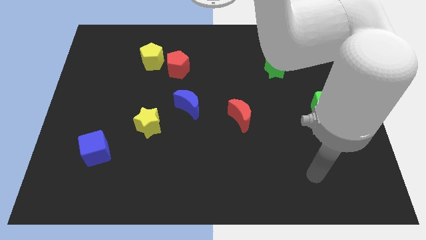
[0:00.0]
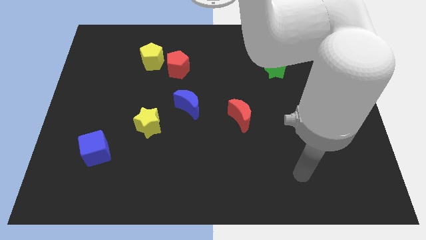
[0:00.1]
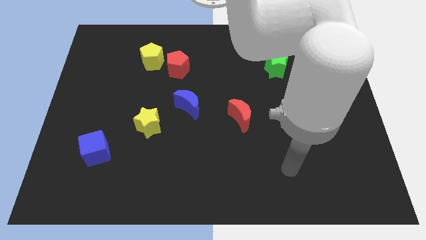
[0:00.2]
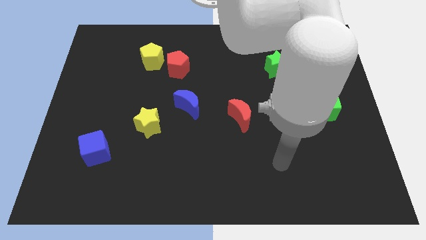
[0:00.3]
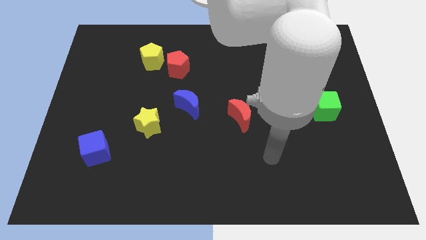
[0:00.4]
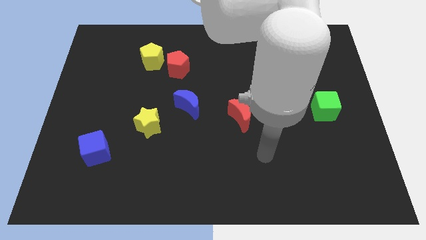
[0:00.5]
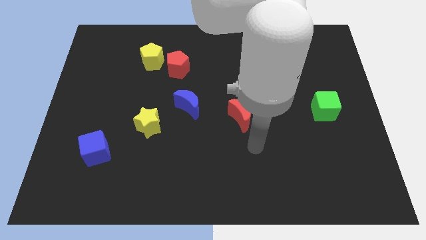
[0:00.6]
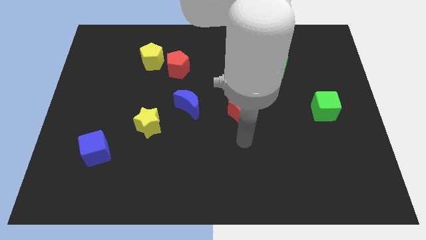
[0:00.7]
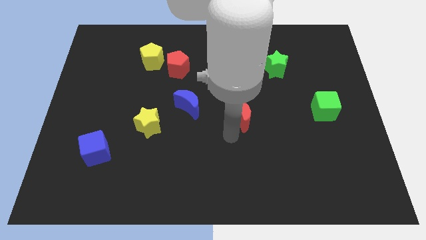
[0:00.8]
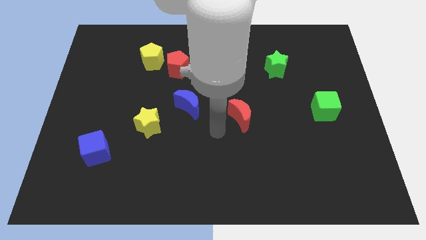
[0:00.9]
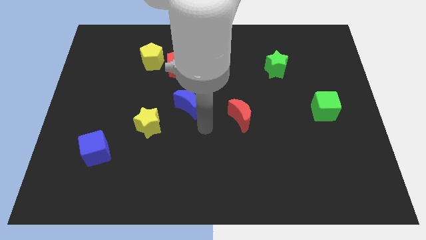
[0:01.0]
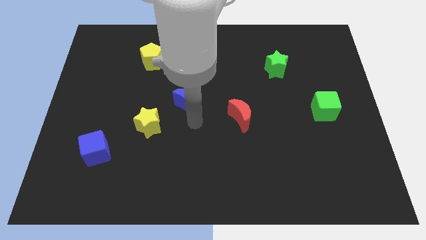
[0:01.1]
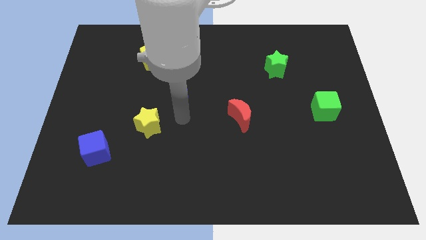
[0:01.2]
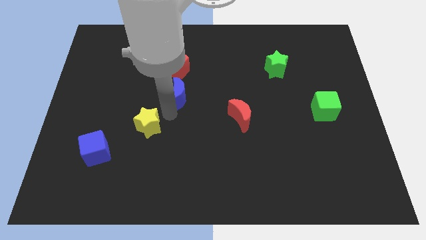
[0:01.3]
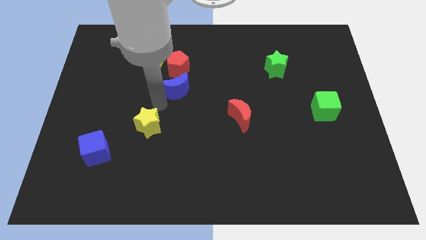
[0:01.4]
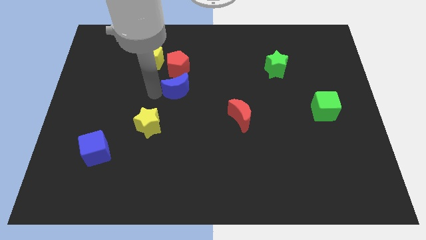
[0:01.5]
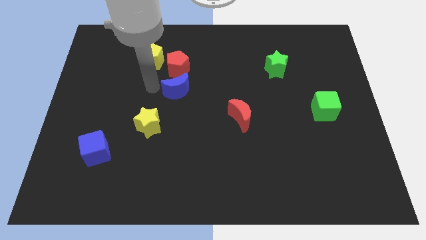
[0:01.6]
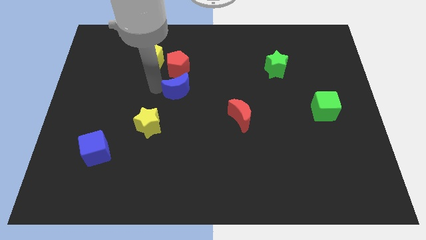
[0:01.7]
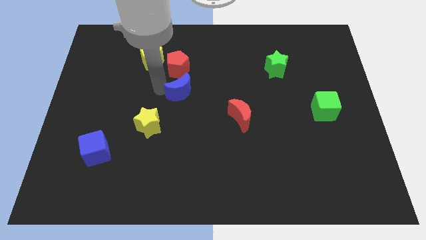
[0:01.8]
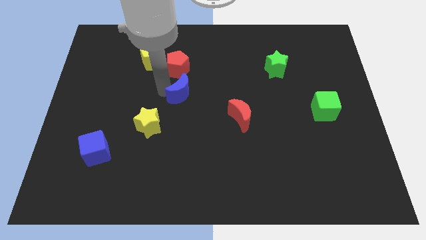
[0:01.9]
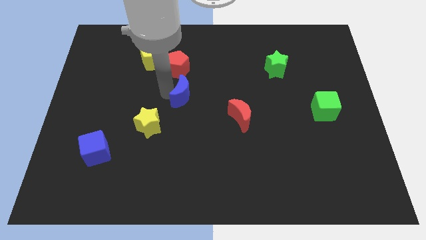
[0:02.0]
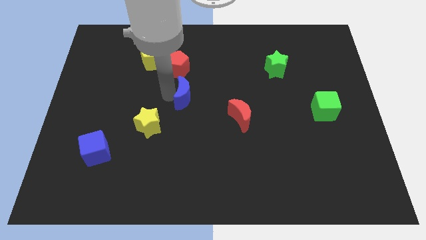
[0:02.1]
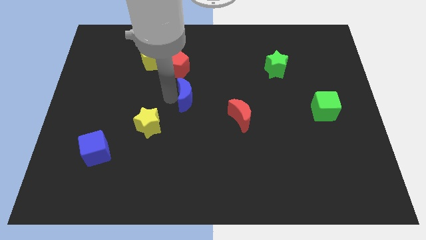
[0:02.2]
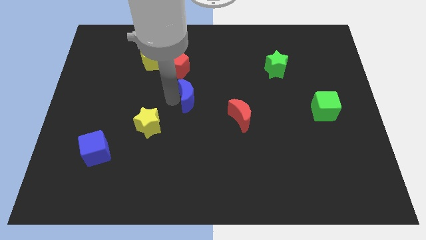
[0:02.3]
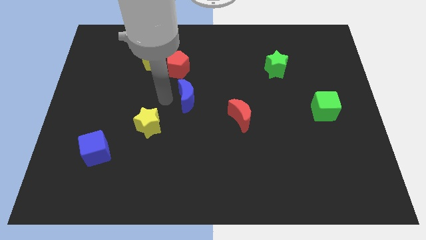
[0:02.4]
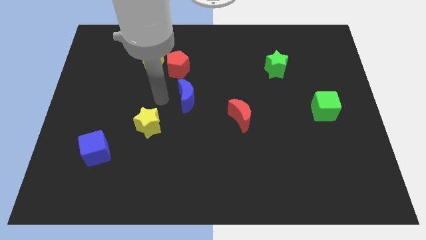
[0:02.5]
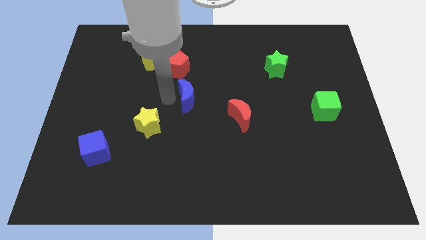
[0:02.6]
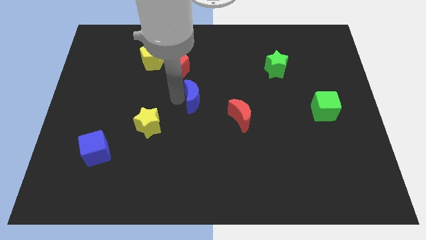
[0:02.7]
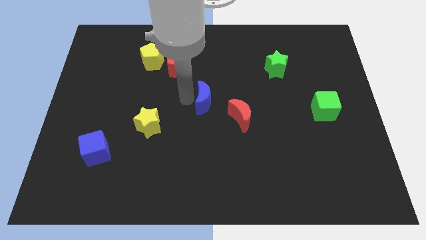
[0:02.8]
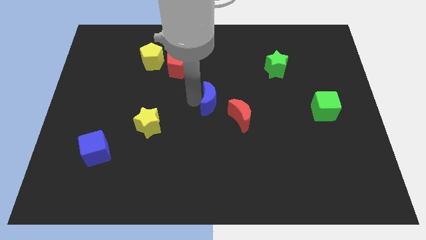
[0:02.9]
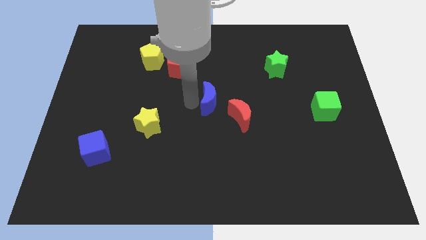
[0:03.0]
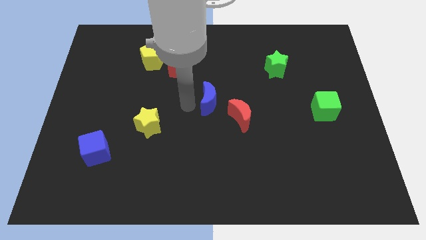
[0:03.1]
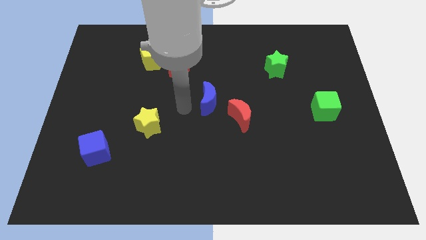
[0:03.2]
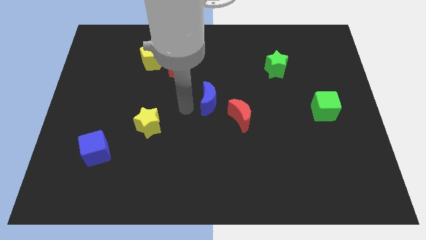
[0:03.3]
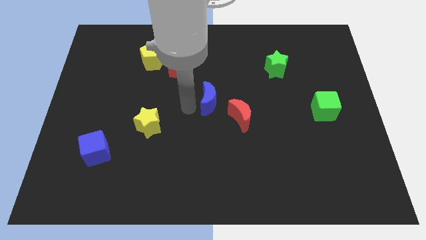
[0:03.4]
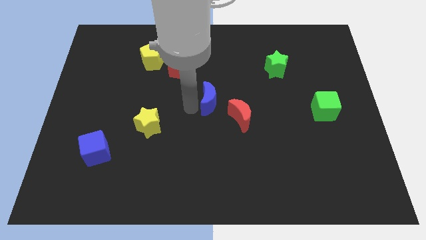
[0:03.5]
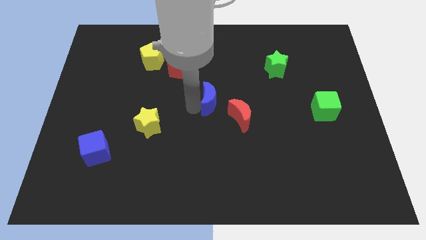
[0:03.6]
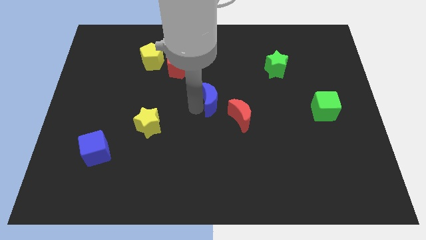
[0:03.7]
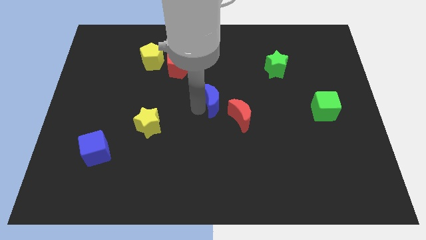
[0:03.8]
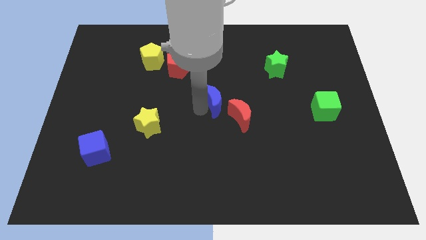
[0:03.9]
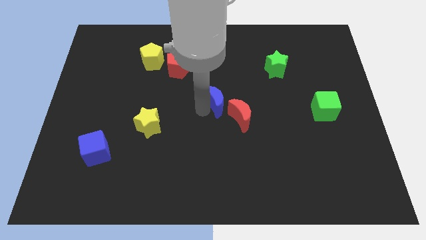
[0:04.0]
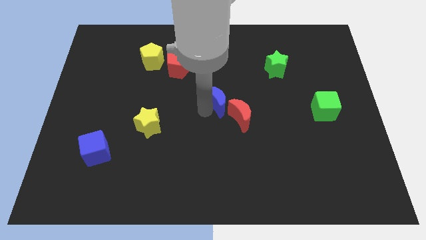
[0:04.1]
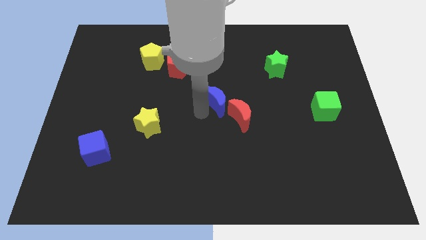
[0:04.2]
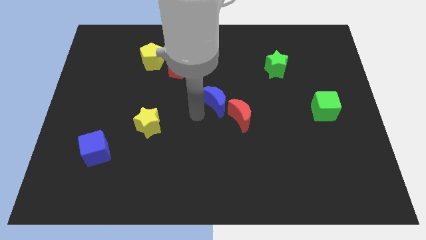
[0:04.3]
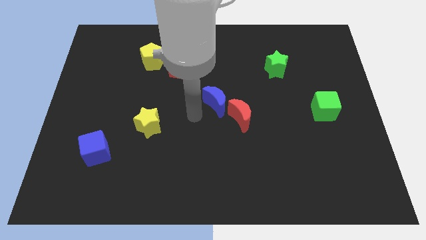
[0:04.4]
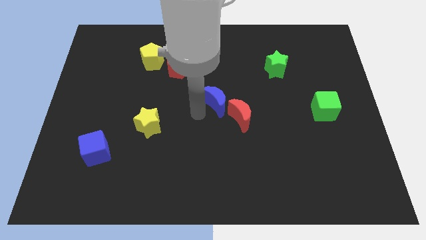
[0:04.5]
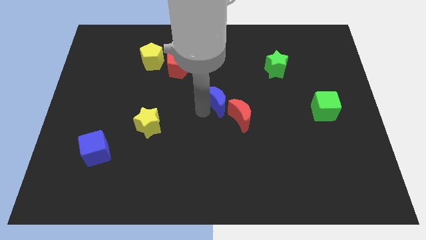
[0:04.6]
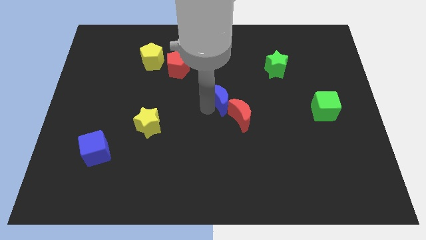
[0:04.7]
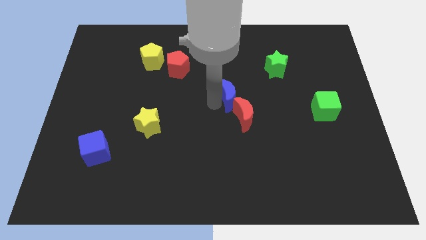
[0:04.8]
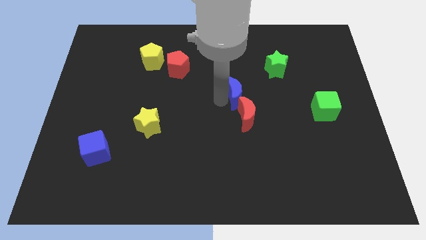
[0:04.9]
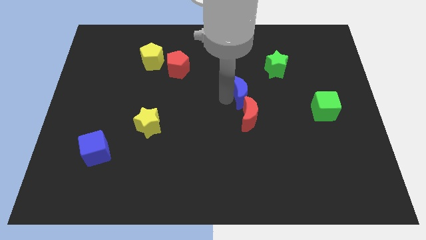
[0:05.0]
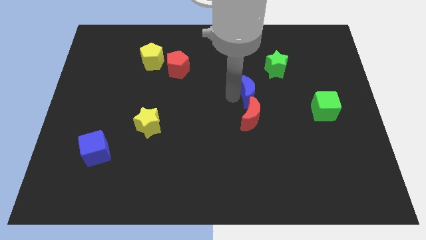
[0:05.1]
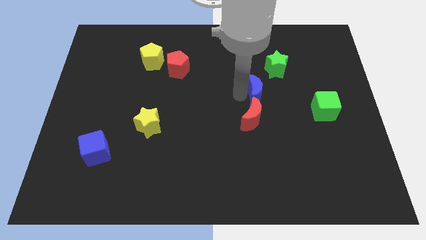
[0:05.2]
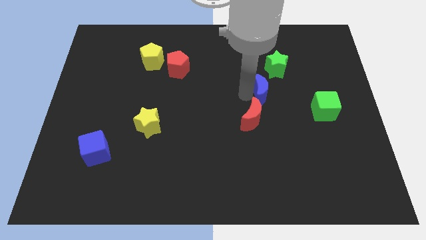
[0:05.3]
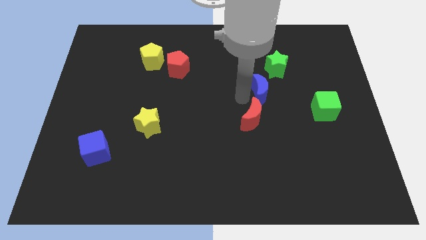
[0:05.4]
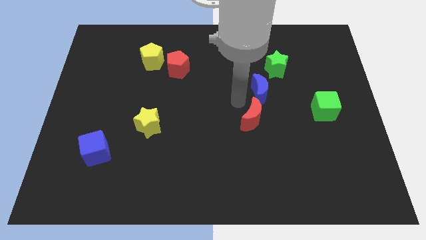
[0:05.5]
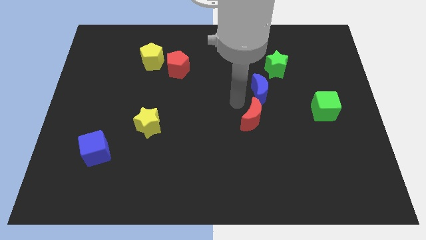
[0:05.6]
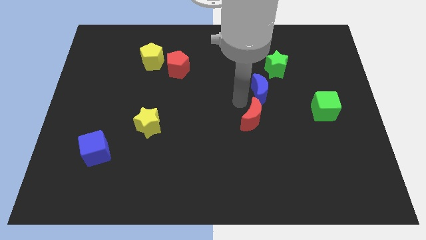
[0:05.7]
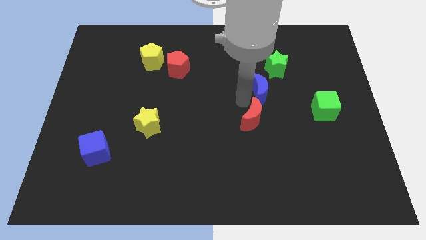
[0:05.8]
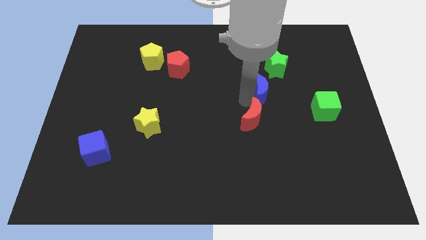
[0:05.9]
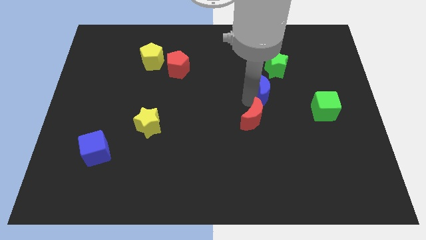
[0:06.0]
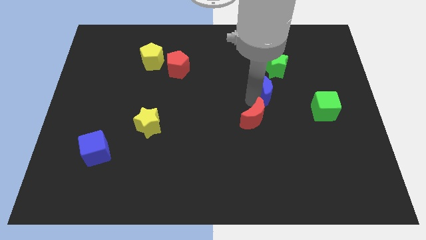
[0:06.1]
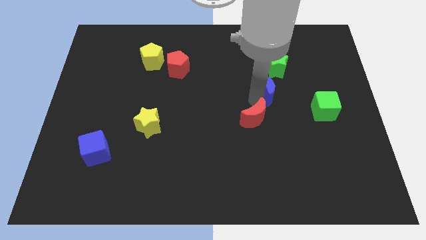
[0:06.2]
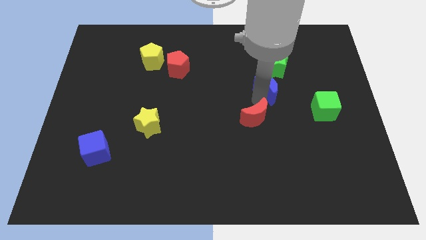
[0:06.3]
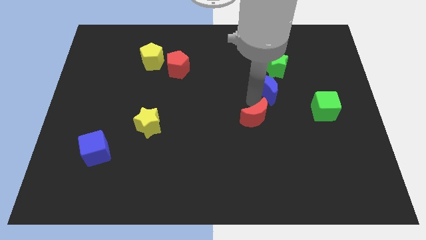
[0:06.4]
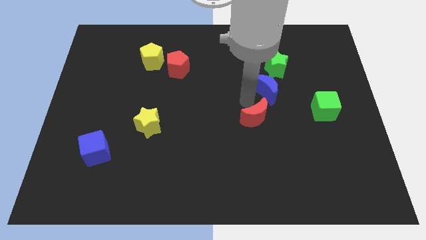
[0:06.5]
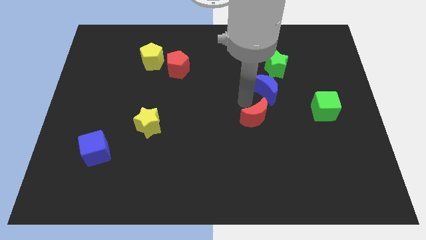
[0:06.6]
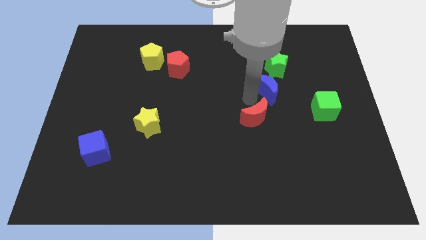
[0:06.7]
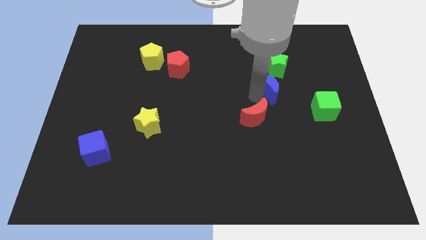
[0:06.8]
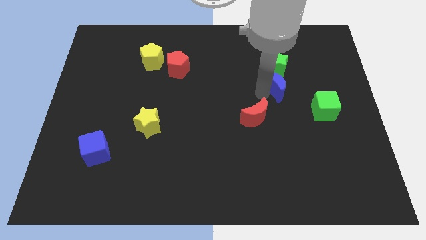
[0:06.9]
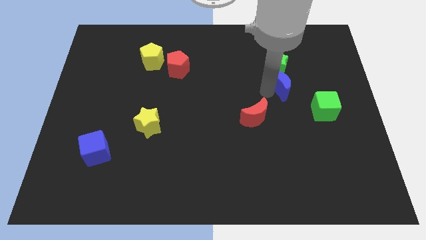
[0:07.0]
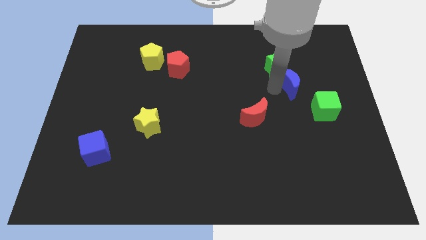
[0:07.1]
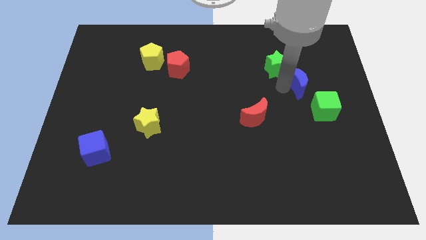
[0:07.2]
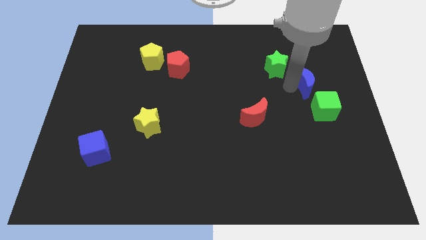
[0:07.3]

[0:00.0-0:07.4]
put the blue moon above the green cube

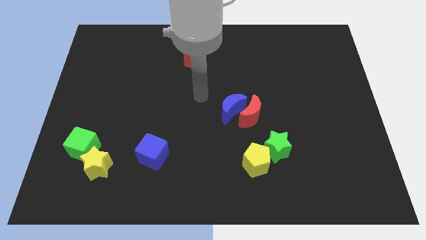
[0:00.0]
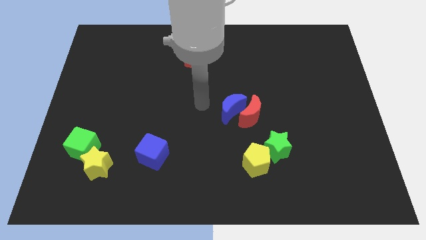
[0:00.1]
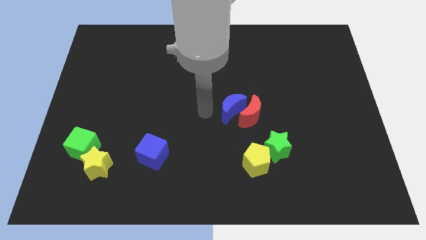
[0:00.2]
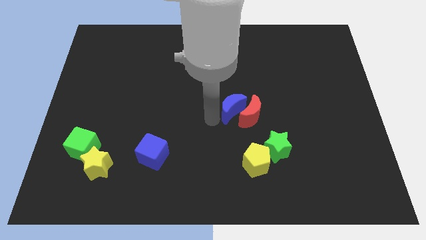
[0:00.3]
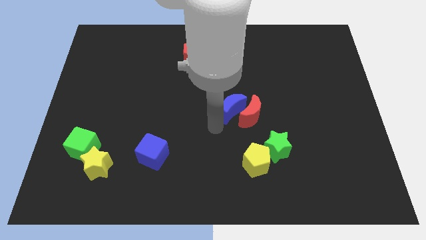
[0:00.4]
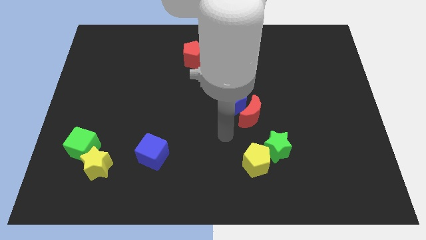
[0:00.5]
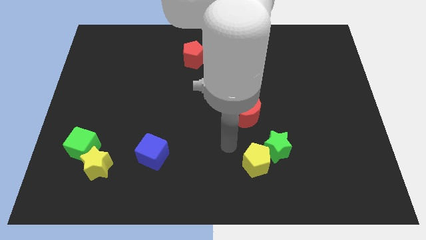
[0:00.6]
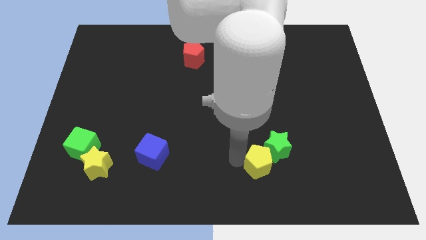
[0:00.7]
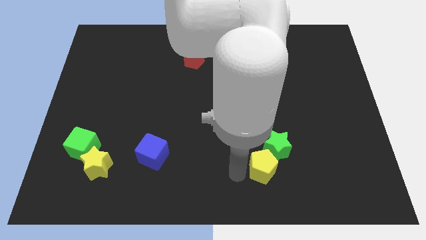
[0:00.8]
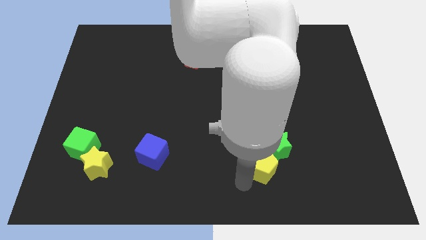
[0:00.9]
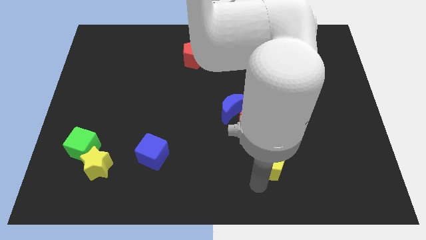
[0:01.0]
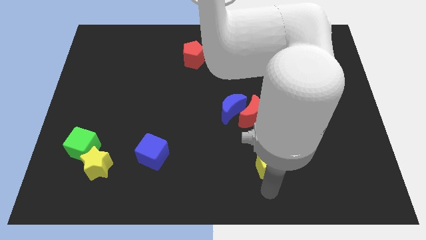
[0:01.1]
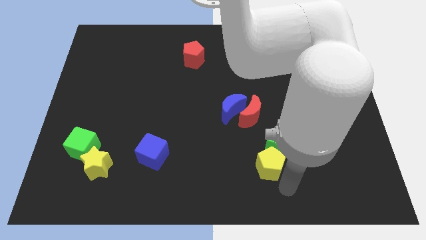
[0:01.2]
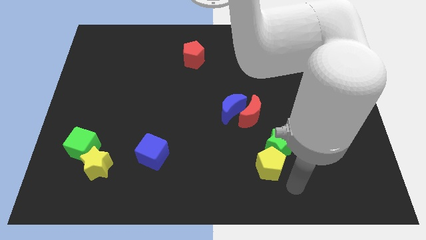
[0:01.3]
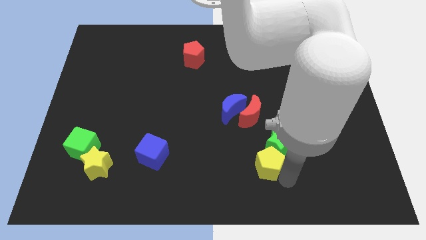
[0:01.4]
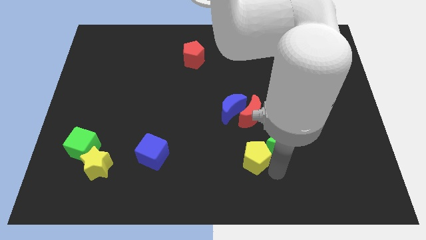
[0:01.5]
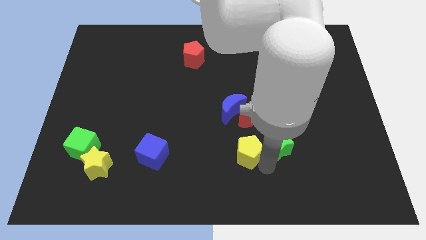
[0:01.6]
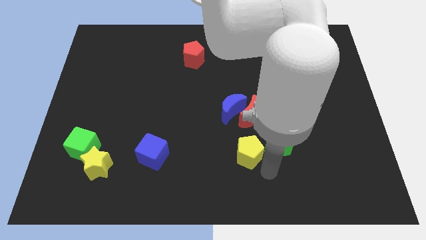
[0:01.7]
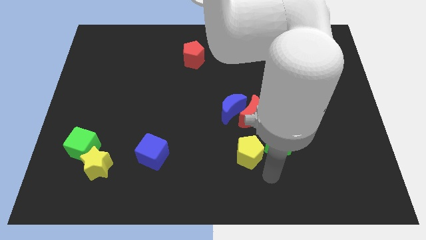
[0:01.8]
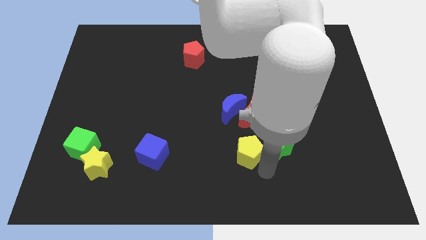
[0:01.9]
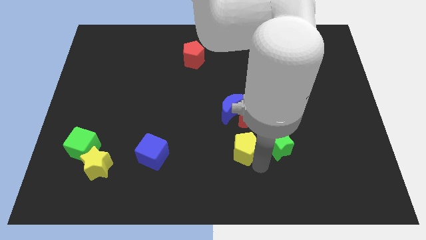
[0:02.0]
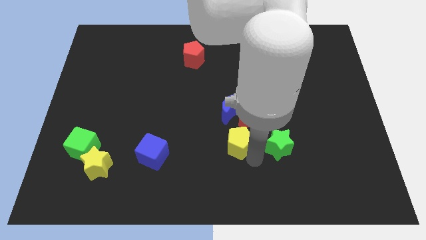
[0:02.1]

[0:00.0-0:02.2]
put the yellow pentagon to the bottom left side of the red moon
